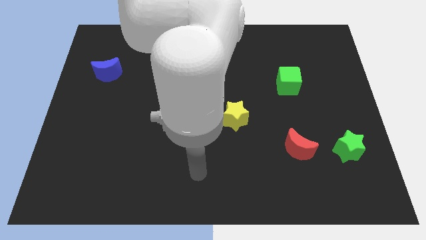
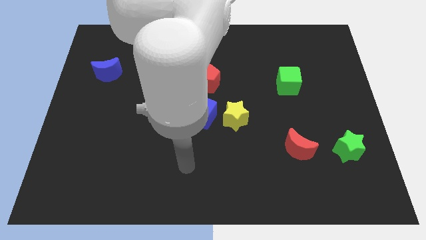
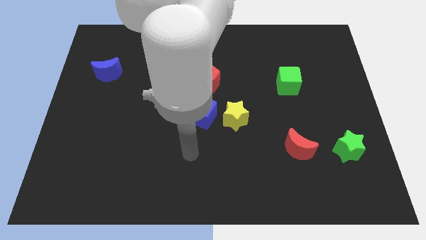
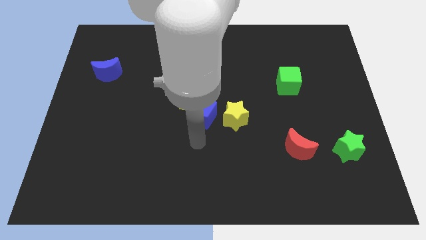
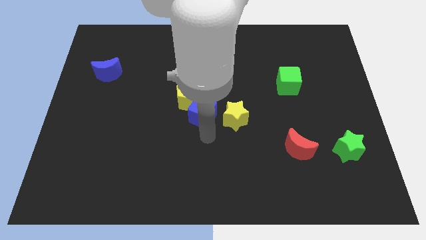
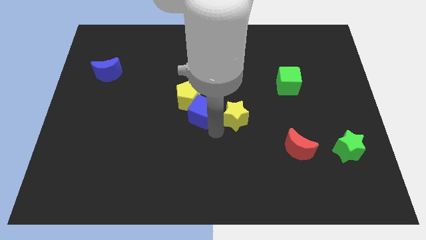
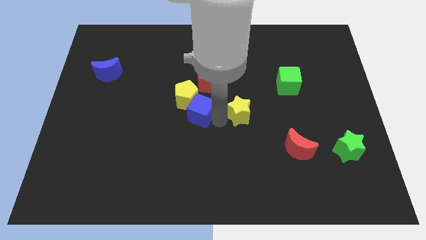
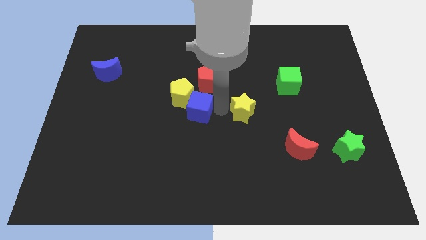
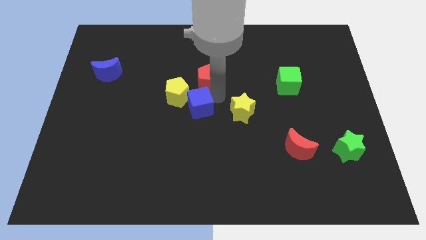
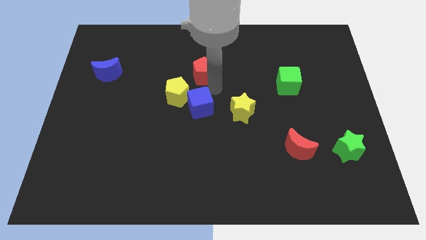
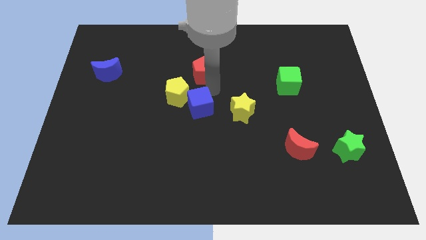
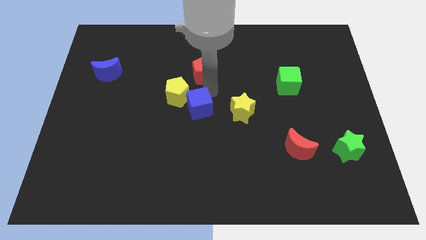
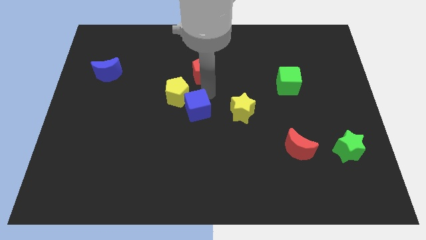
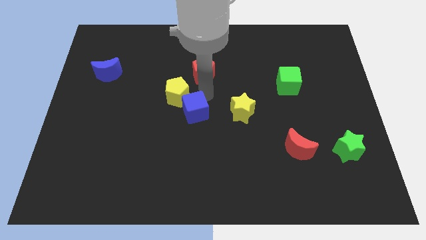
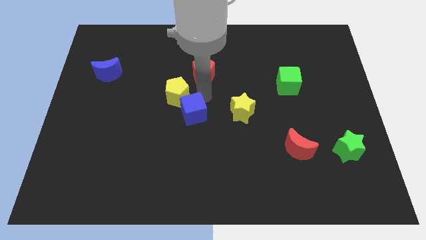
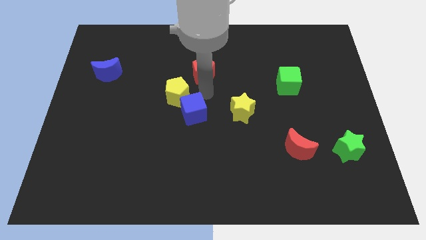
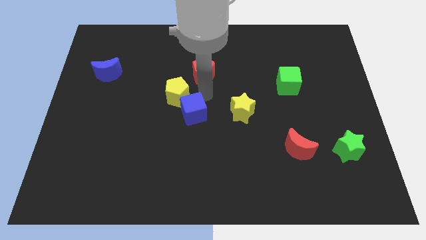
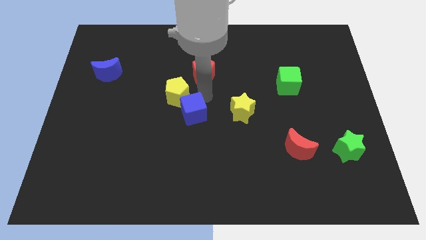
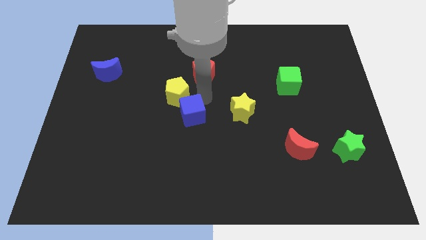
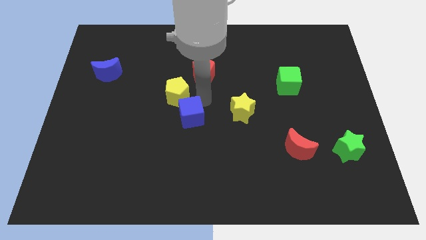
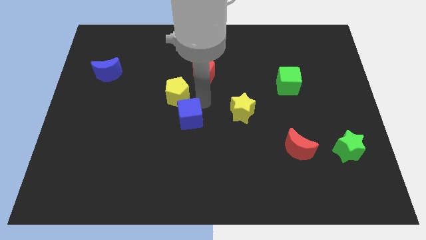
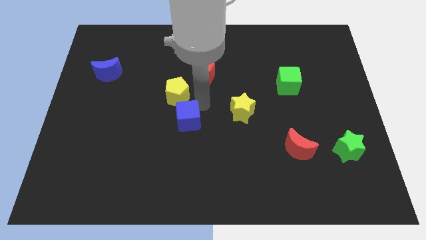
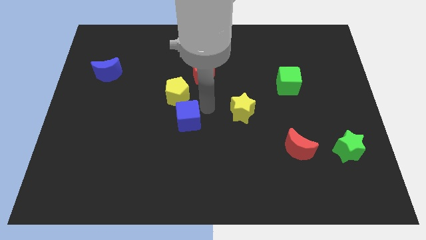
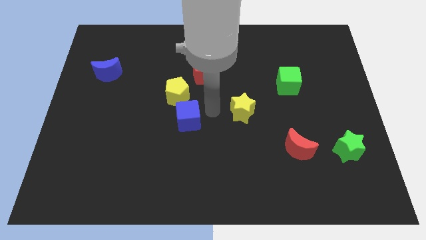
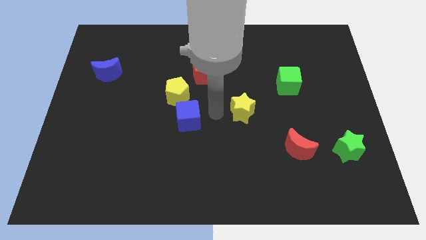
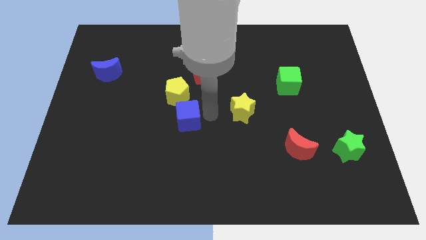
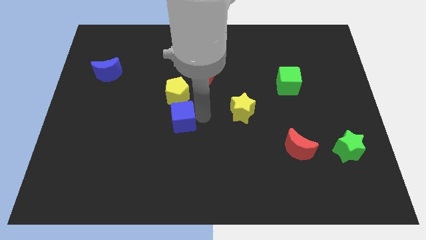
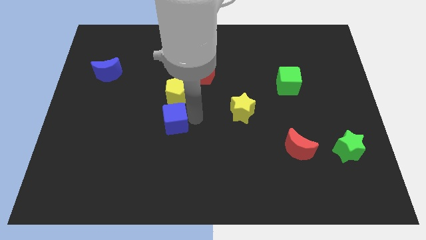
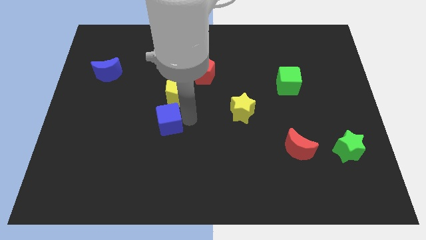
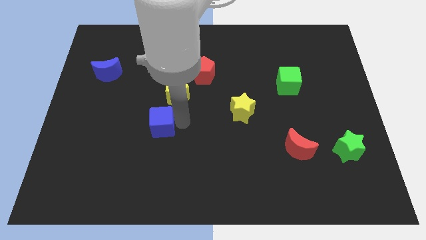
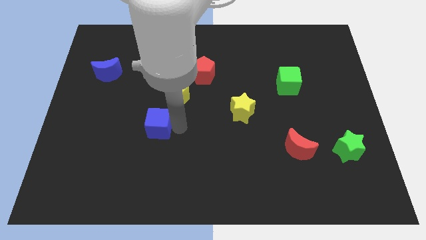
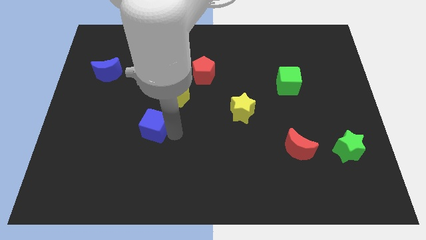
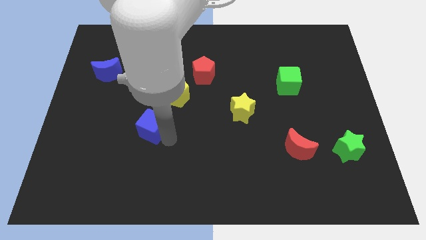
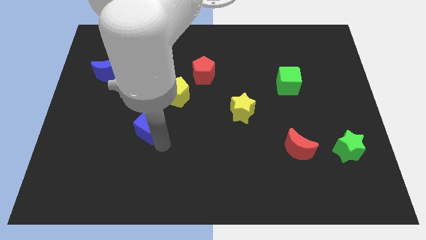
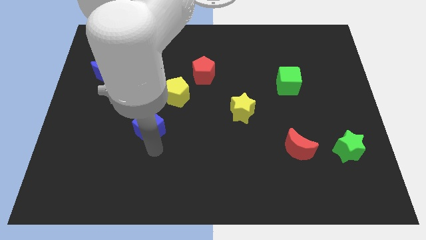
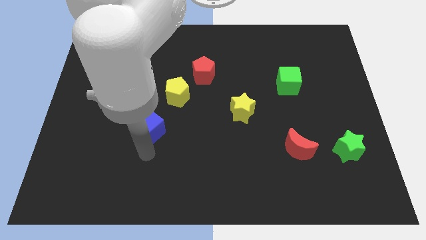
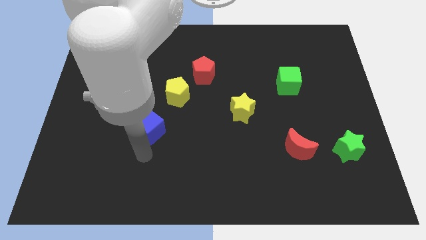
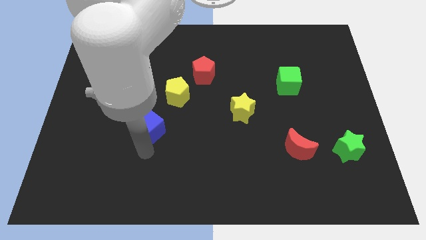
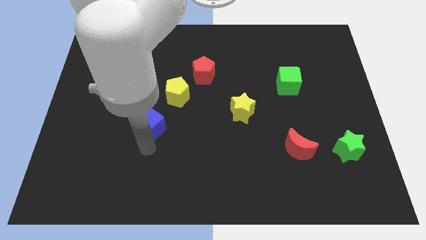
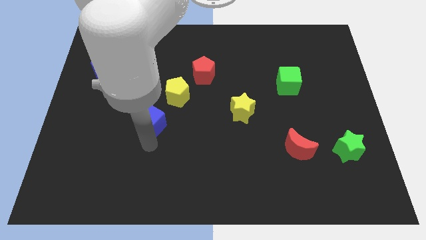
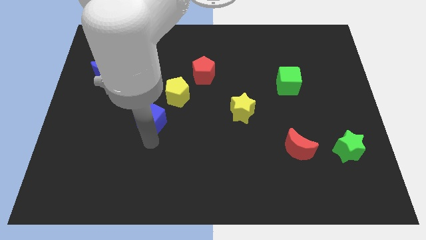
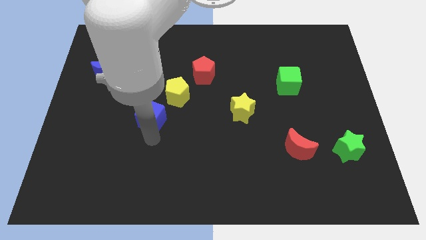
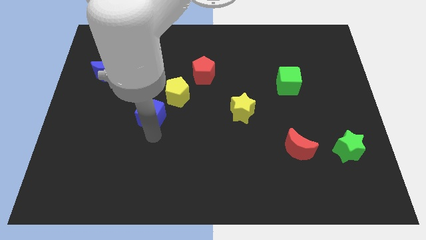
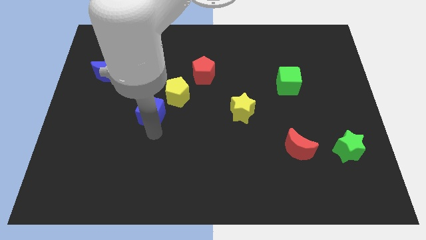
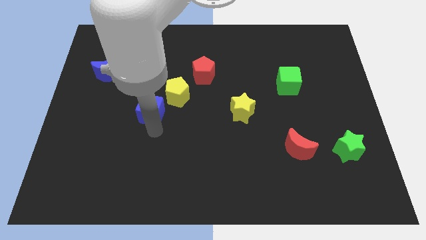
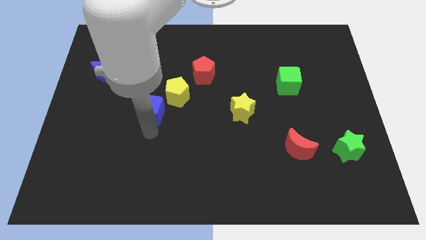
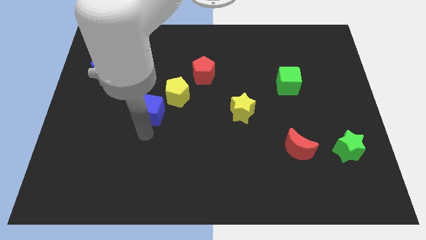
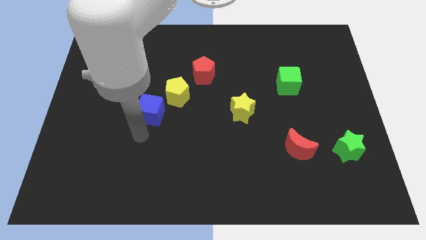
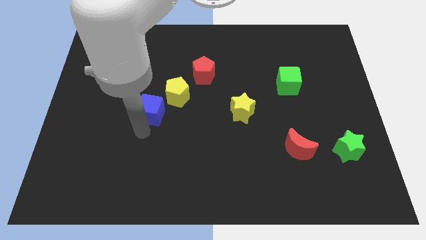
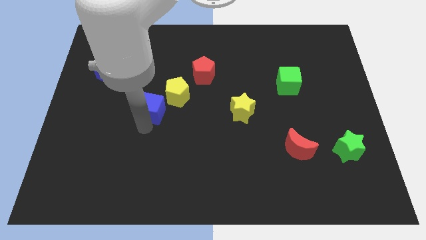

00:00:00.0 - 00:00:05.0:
slightly push the blue cube diagonally upwards and to the left

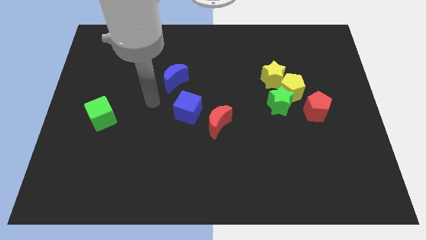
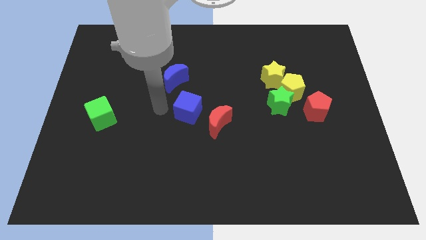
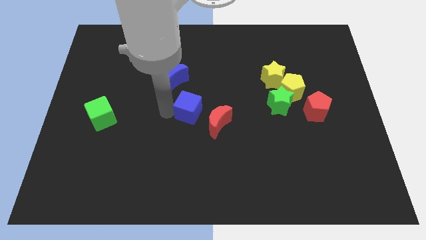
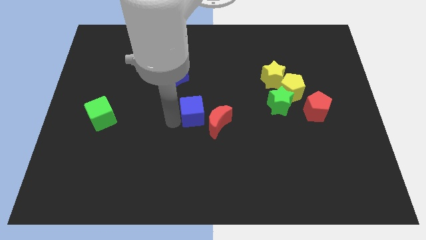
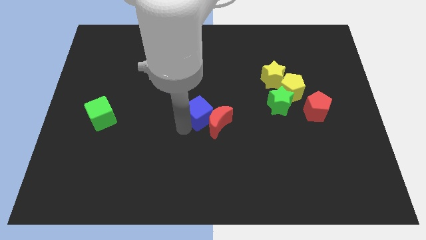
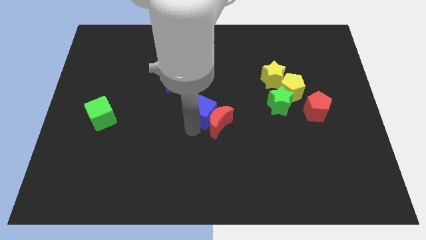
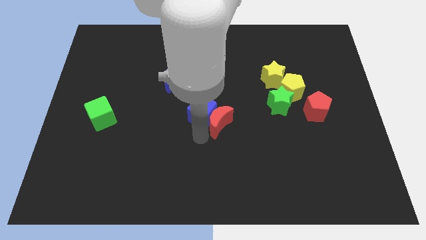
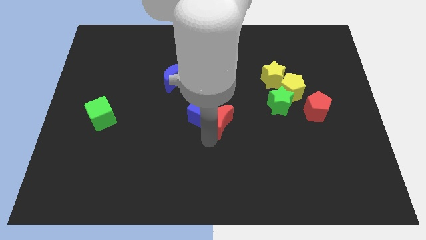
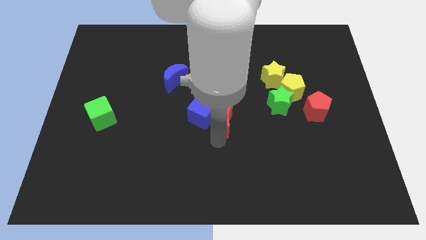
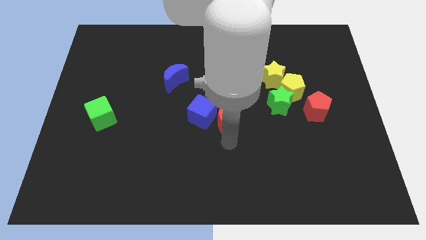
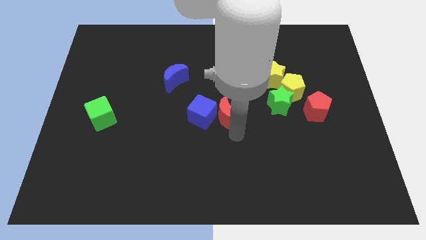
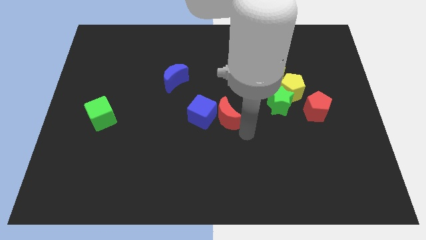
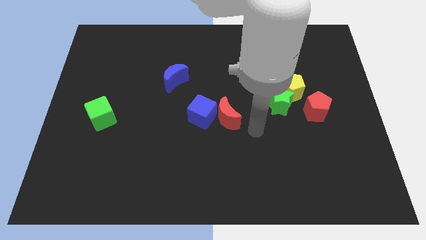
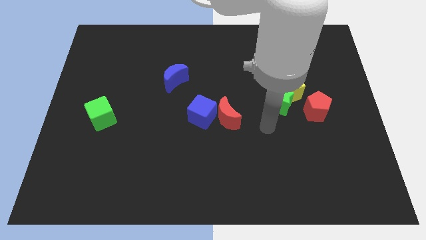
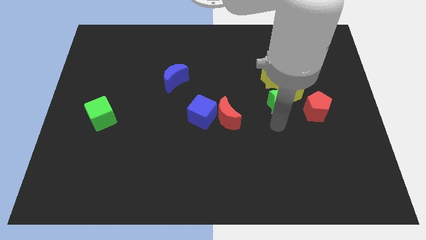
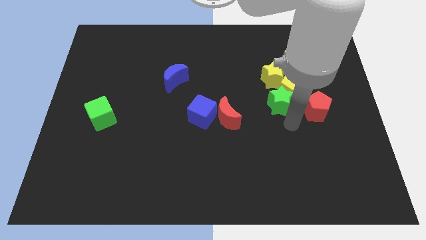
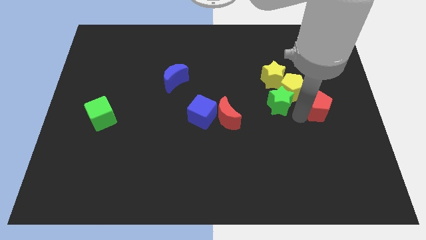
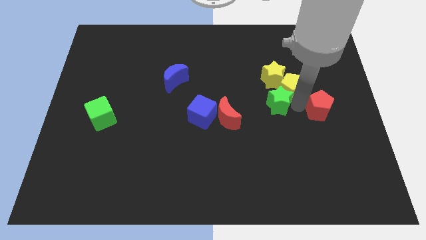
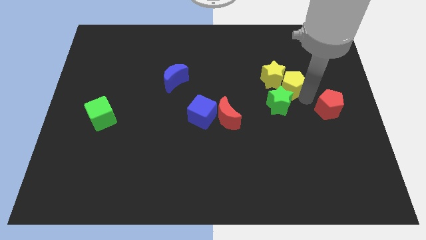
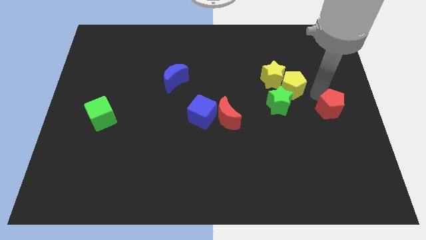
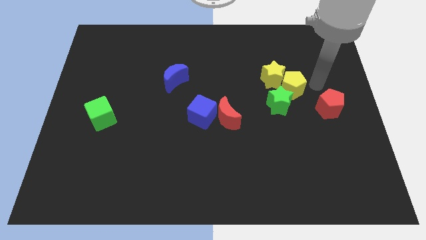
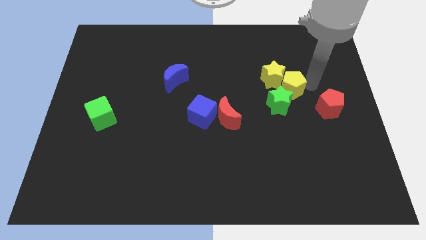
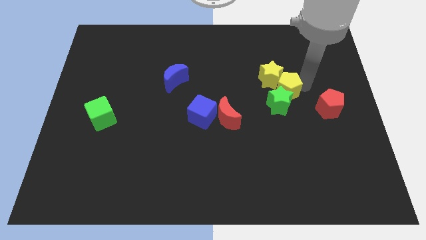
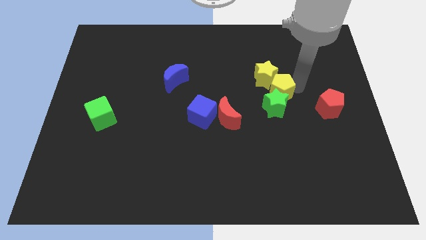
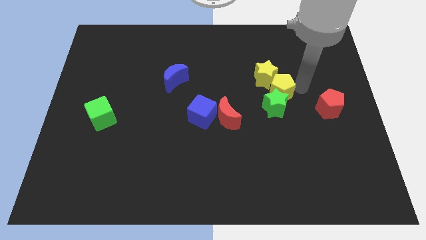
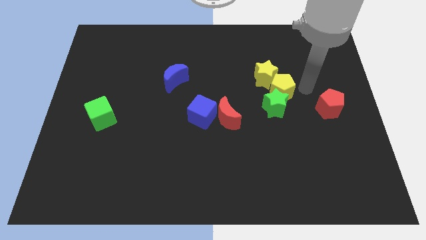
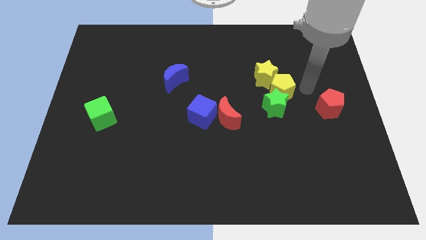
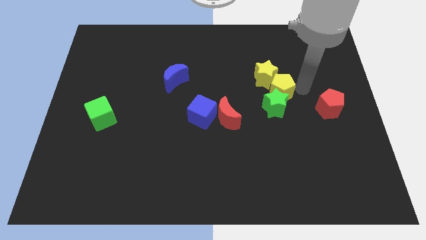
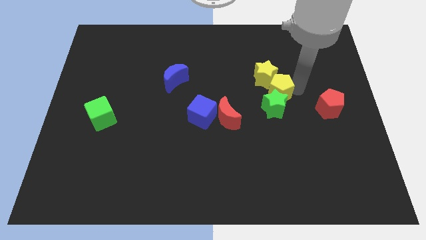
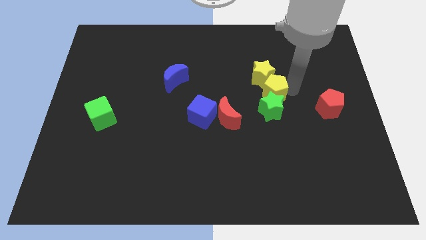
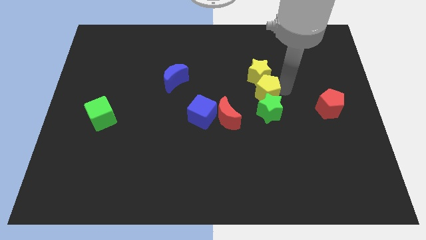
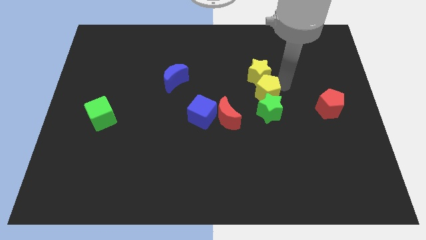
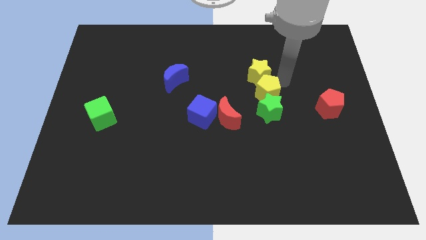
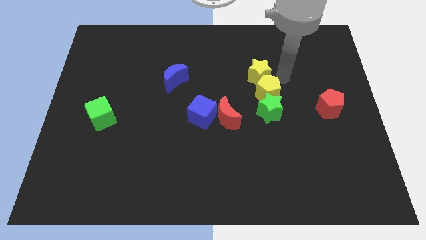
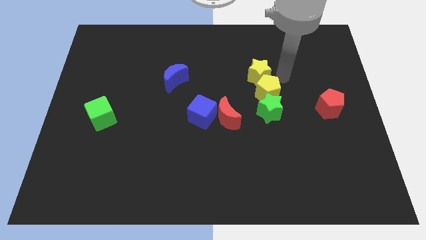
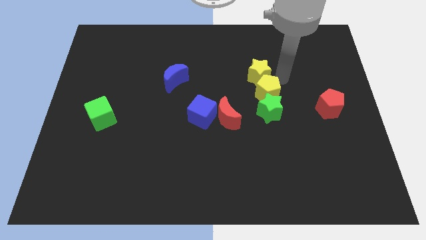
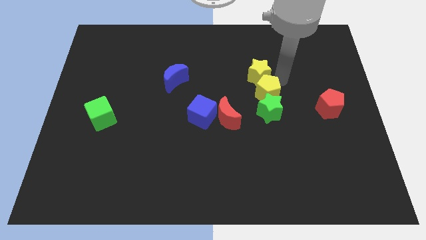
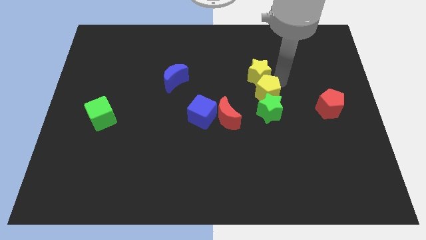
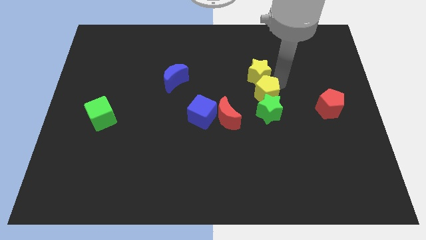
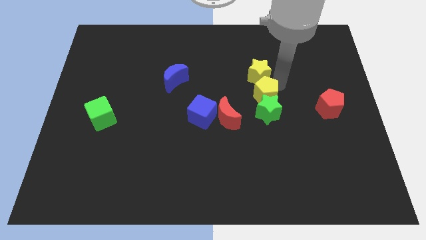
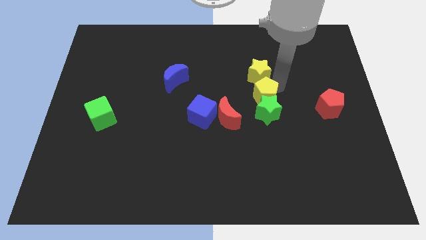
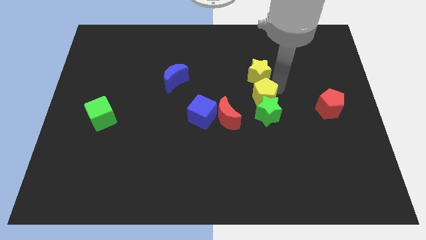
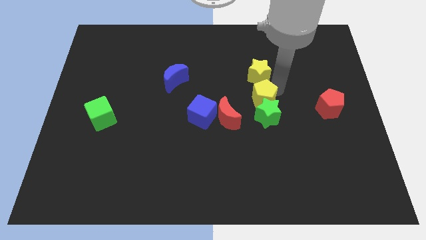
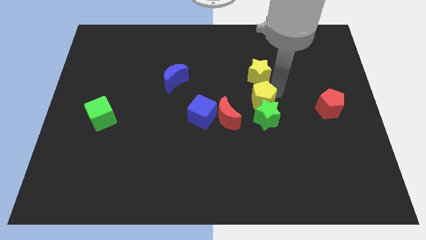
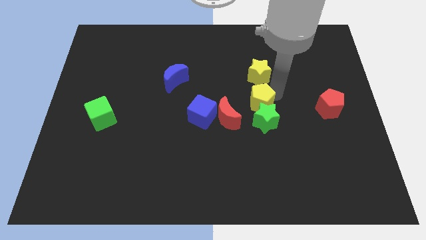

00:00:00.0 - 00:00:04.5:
slightly push the yellow pentagon diagonally downwards and left
